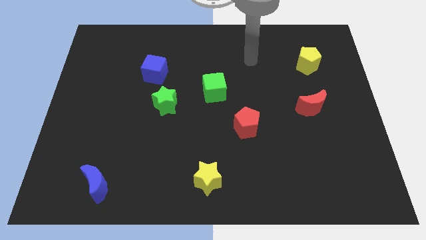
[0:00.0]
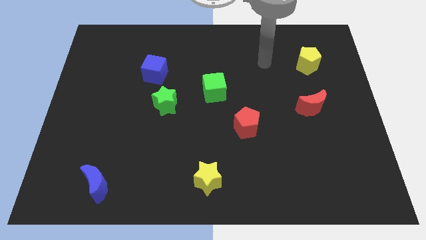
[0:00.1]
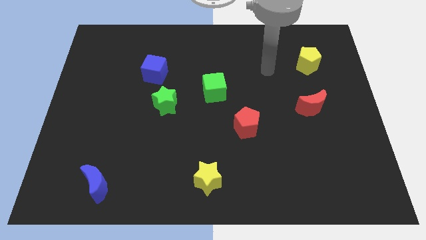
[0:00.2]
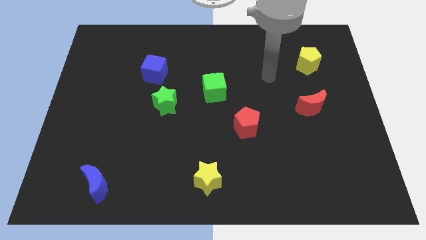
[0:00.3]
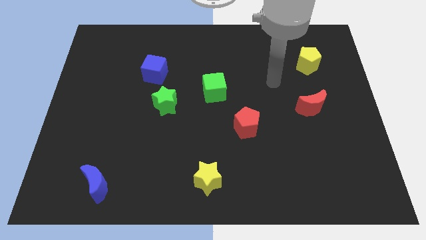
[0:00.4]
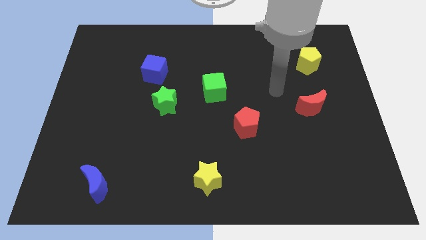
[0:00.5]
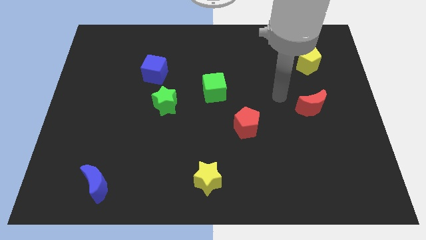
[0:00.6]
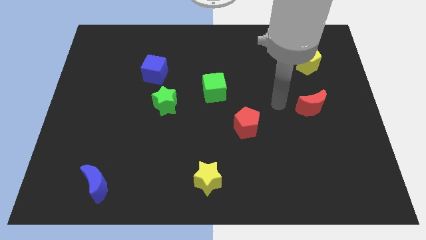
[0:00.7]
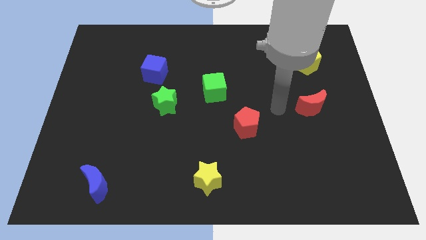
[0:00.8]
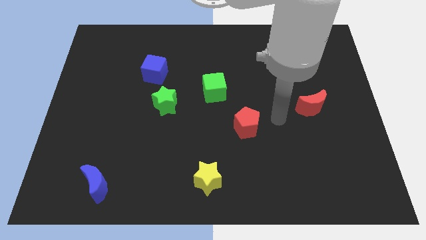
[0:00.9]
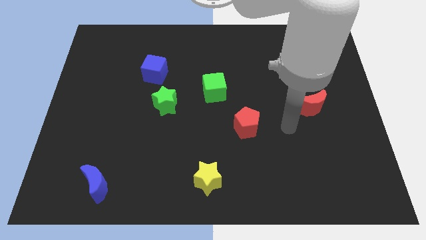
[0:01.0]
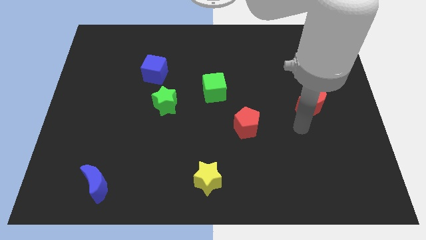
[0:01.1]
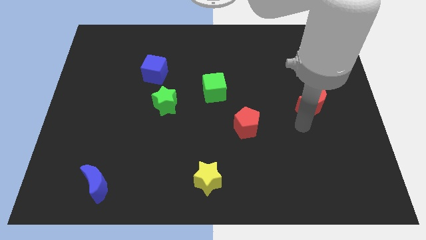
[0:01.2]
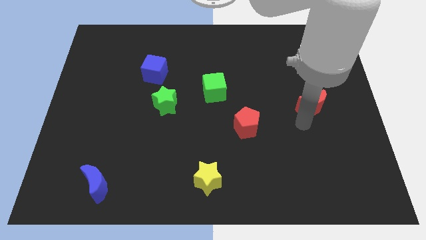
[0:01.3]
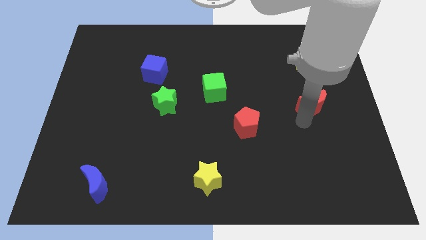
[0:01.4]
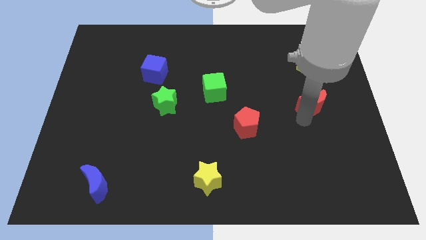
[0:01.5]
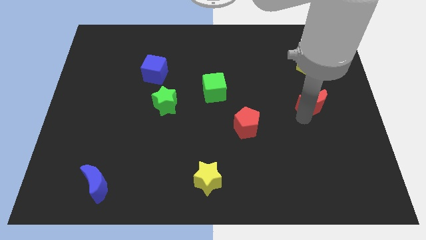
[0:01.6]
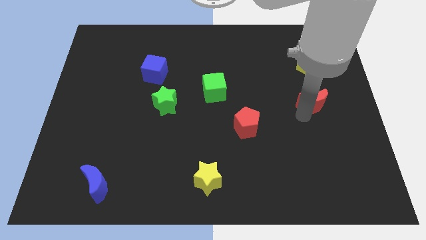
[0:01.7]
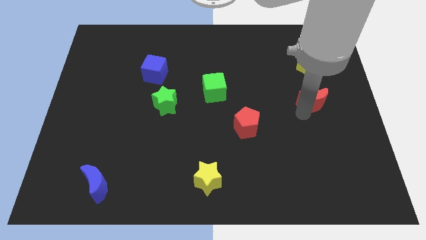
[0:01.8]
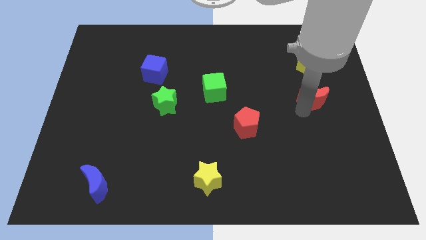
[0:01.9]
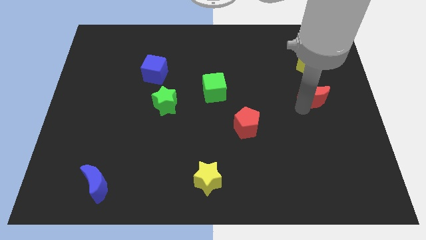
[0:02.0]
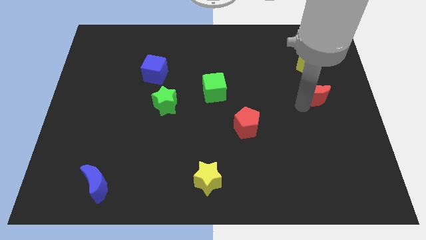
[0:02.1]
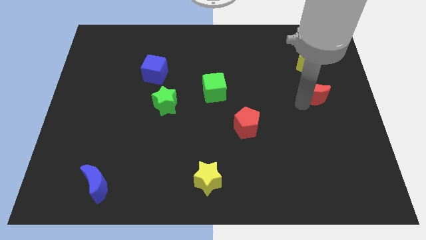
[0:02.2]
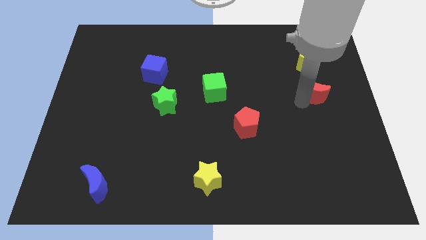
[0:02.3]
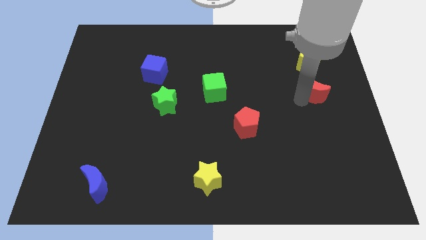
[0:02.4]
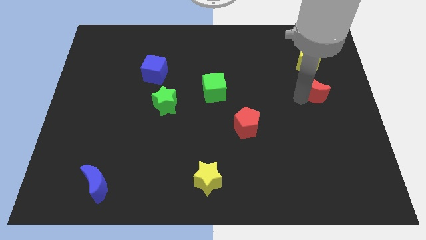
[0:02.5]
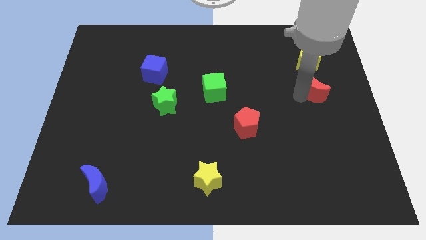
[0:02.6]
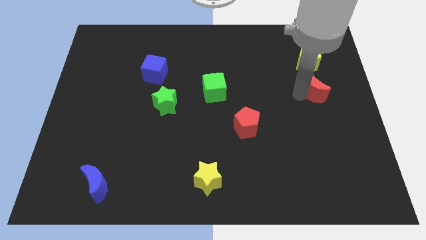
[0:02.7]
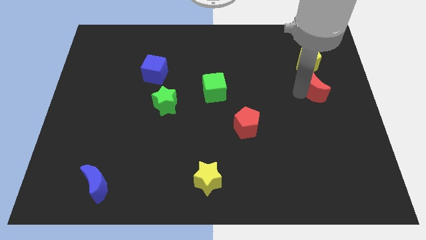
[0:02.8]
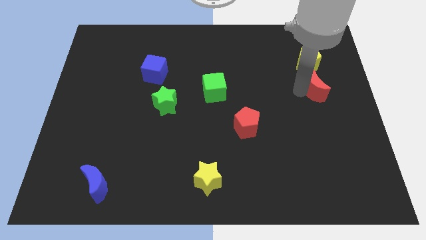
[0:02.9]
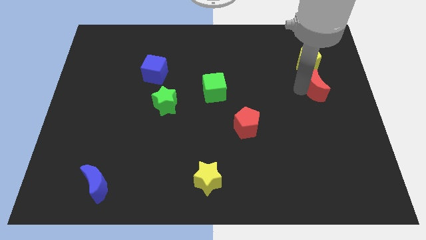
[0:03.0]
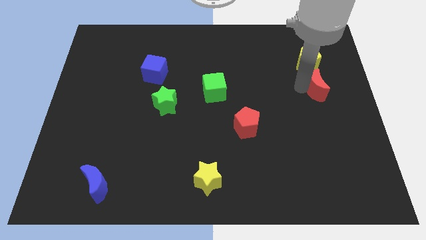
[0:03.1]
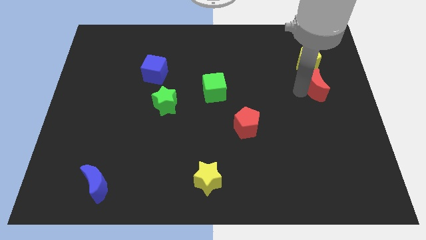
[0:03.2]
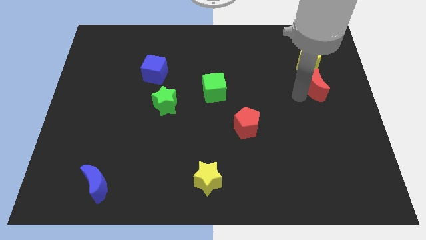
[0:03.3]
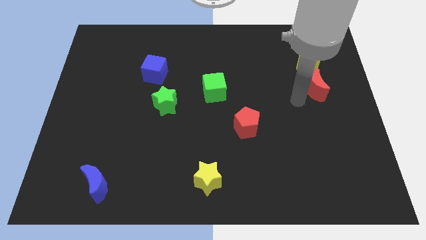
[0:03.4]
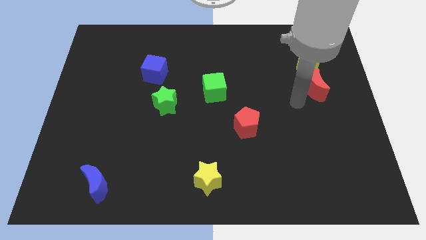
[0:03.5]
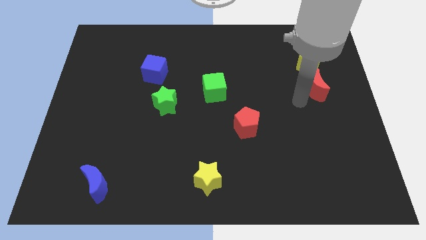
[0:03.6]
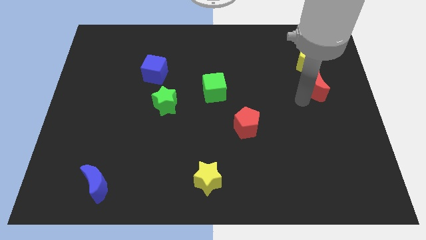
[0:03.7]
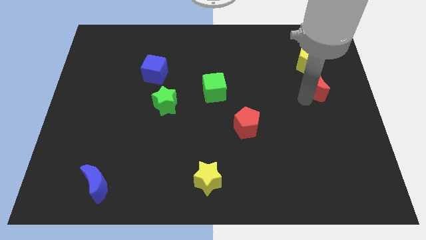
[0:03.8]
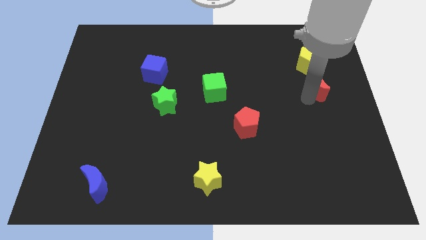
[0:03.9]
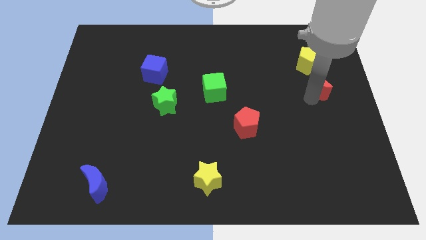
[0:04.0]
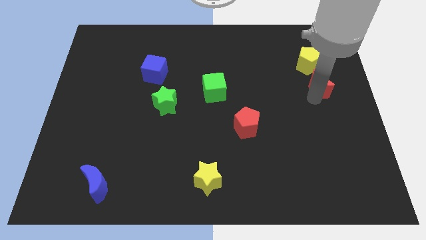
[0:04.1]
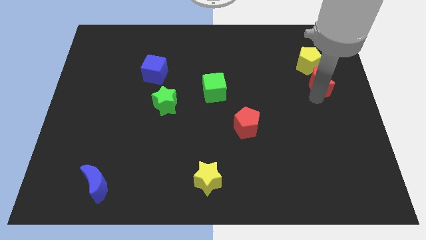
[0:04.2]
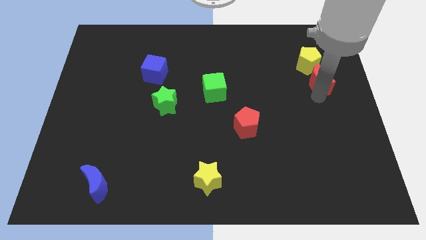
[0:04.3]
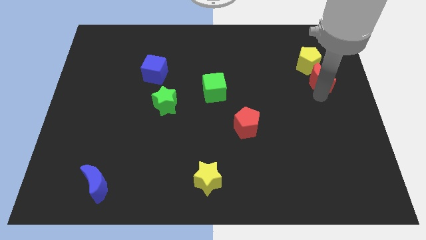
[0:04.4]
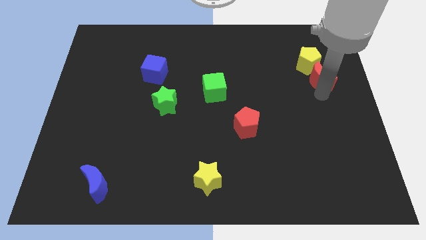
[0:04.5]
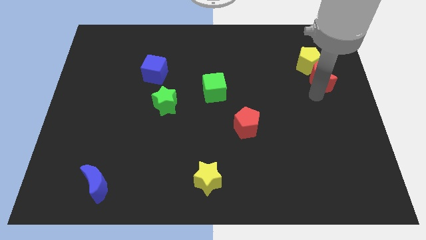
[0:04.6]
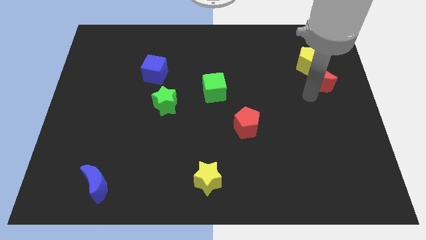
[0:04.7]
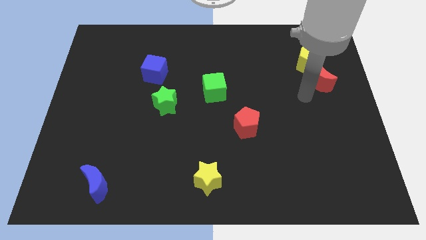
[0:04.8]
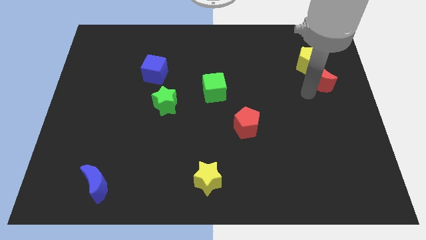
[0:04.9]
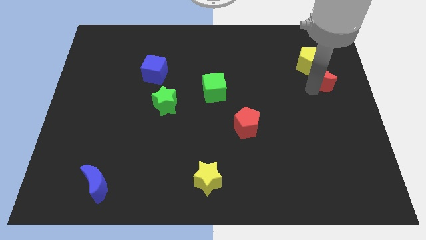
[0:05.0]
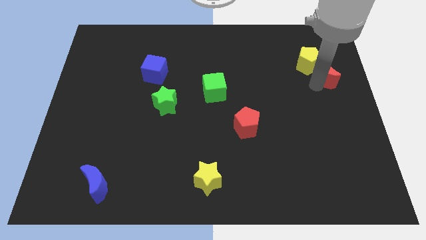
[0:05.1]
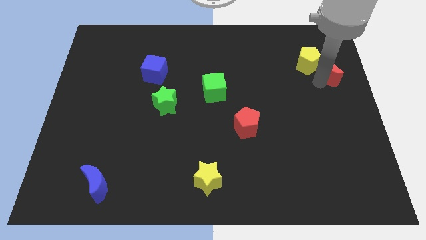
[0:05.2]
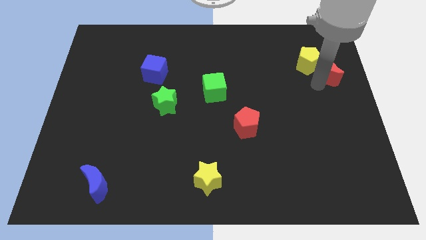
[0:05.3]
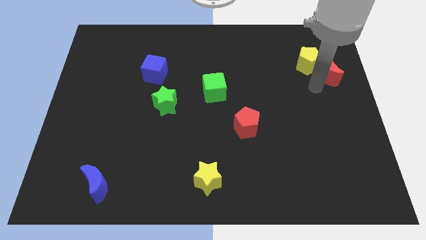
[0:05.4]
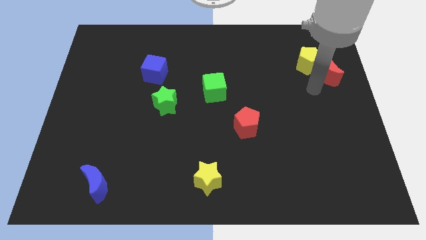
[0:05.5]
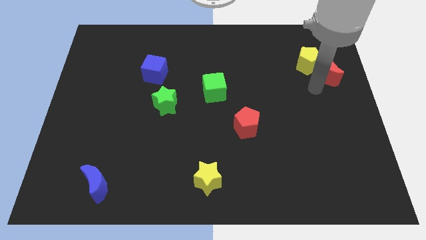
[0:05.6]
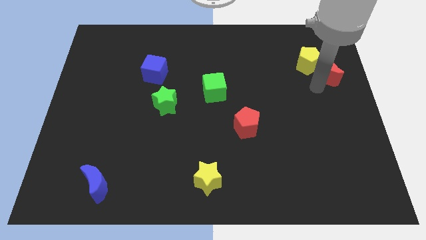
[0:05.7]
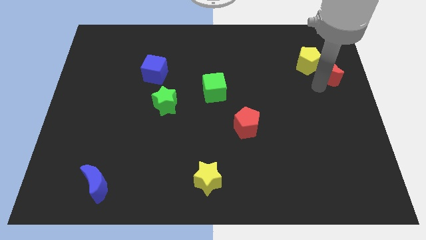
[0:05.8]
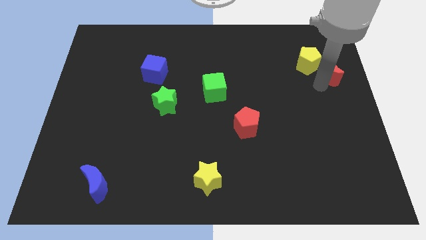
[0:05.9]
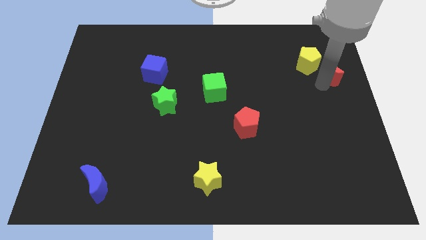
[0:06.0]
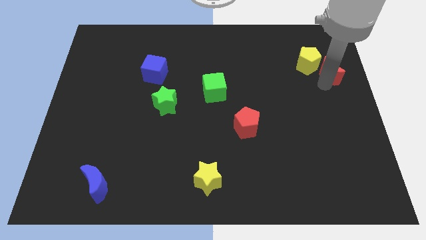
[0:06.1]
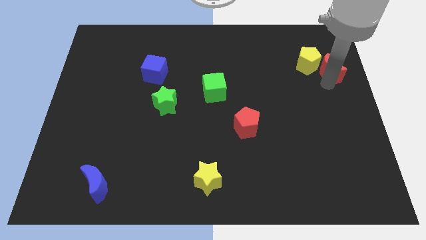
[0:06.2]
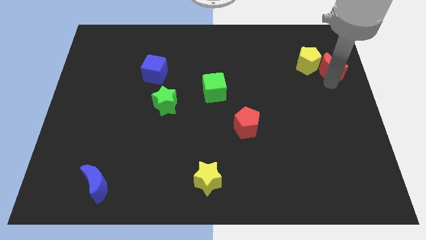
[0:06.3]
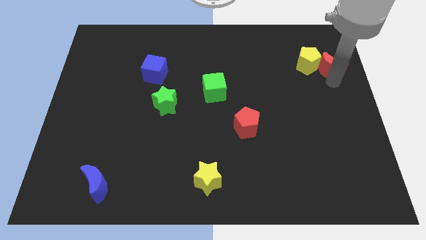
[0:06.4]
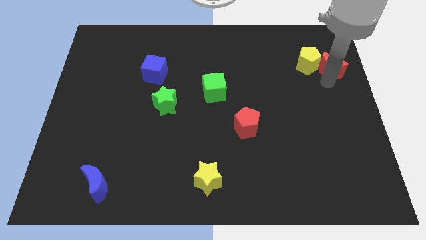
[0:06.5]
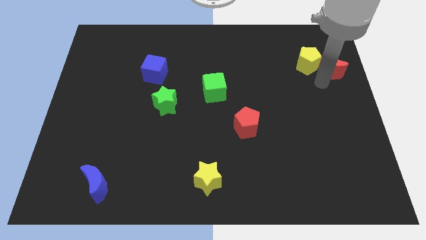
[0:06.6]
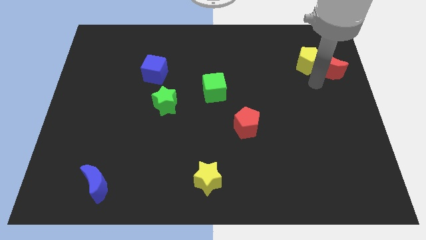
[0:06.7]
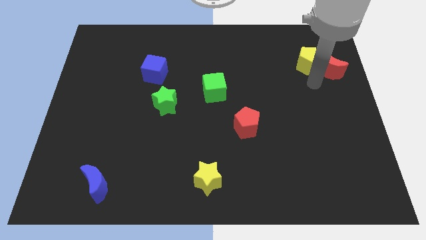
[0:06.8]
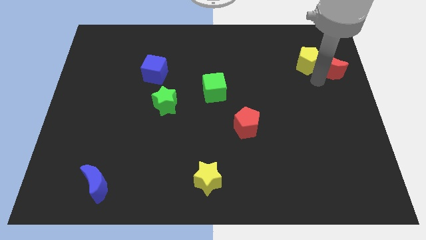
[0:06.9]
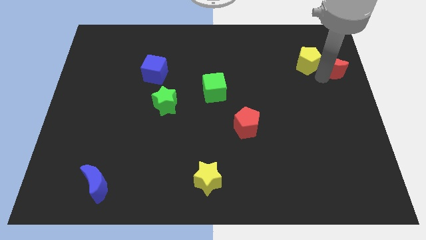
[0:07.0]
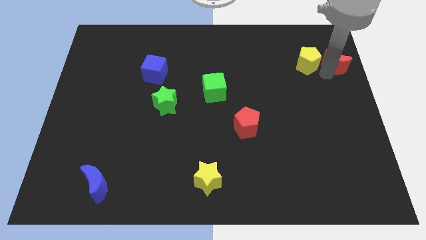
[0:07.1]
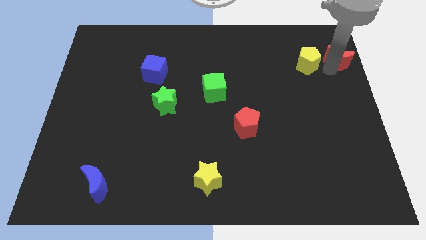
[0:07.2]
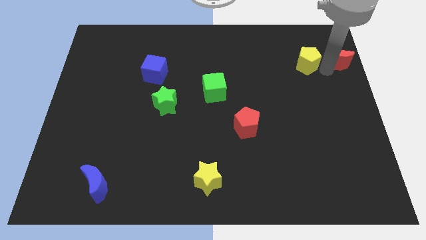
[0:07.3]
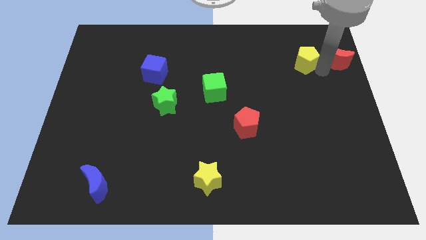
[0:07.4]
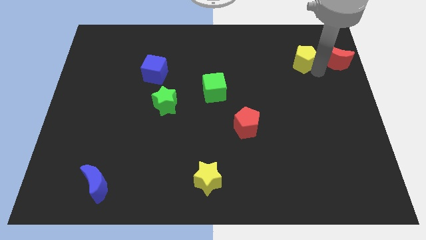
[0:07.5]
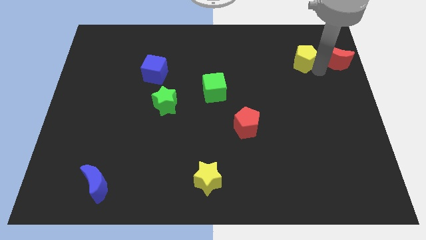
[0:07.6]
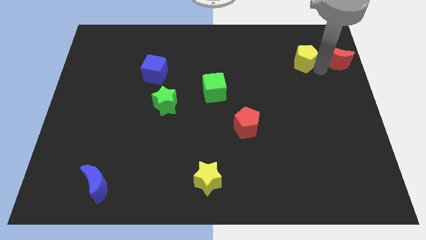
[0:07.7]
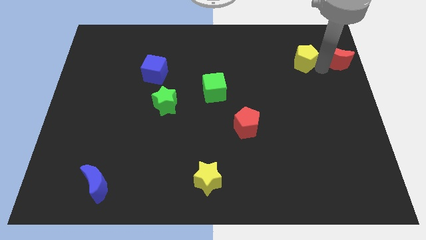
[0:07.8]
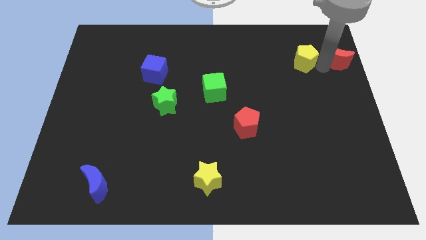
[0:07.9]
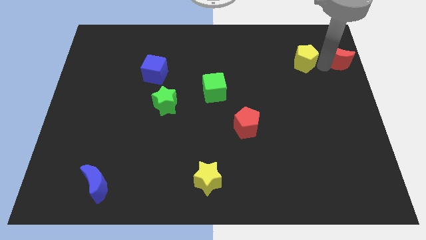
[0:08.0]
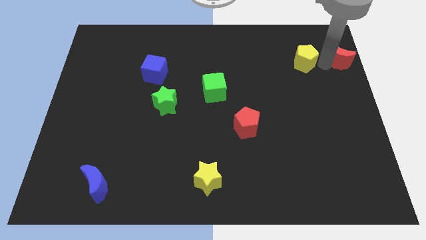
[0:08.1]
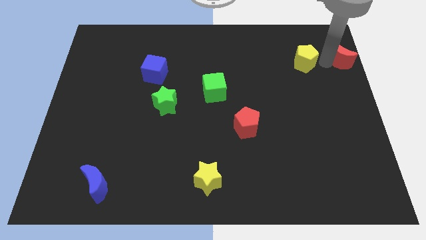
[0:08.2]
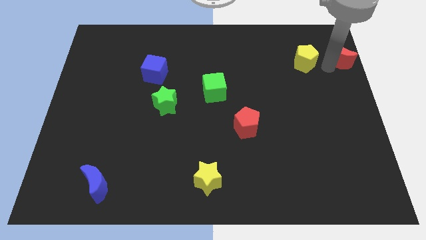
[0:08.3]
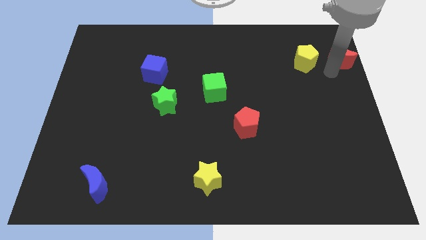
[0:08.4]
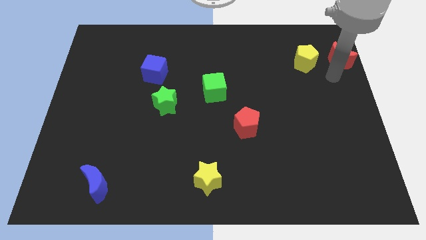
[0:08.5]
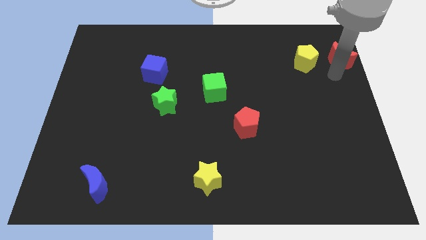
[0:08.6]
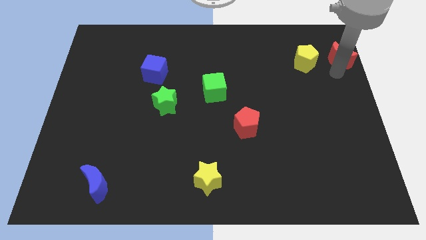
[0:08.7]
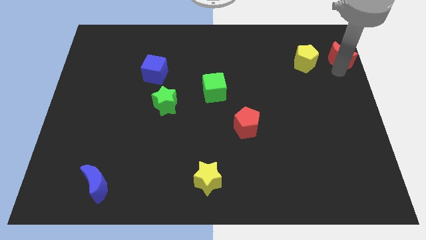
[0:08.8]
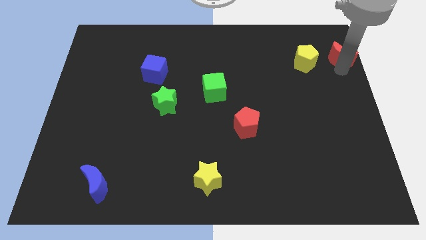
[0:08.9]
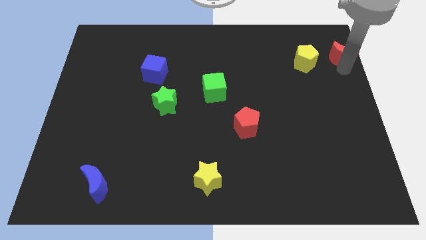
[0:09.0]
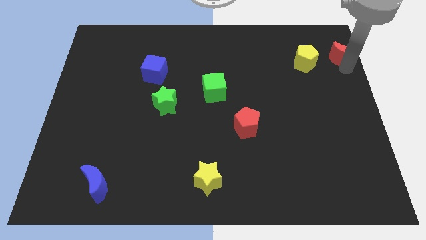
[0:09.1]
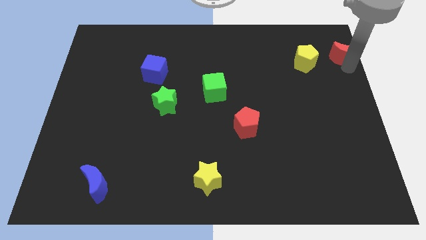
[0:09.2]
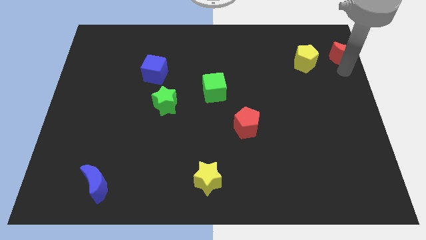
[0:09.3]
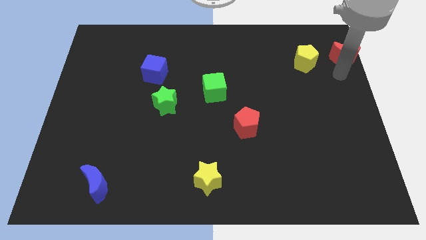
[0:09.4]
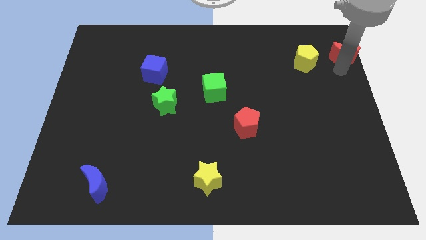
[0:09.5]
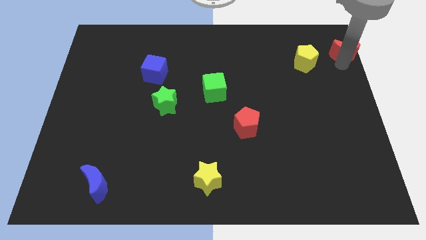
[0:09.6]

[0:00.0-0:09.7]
slide the red moon to the top right
